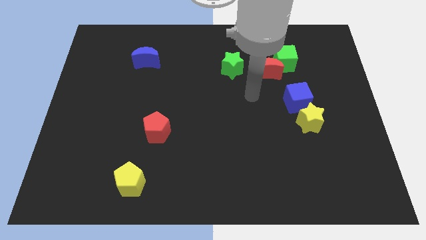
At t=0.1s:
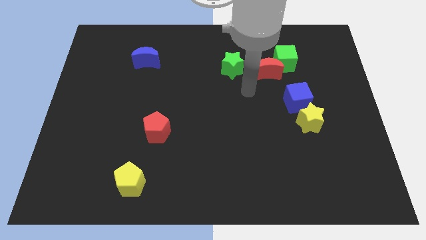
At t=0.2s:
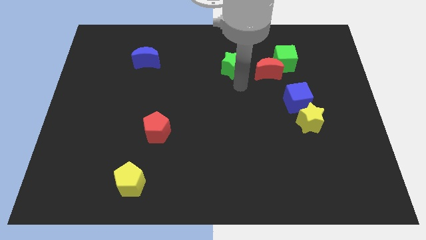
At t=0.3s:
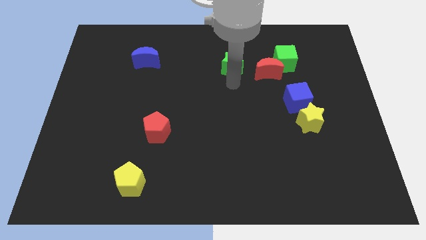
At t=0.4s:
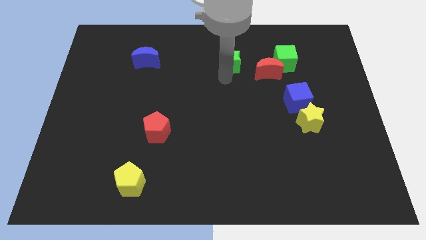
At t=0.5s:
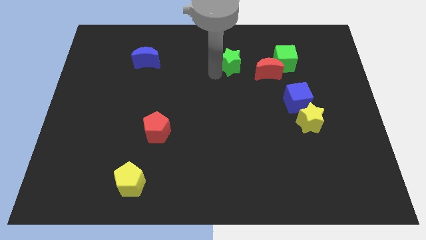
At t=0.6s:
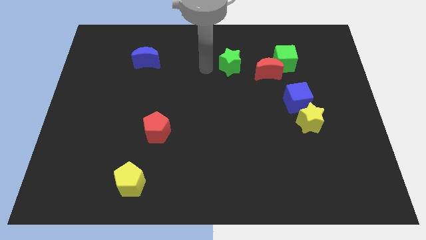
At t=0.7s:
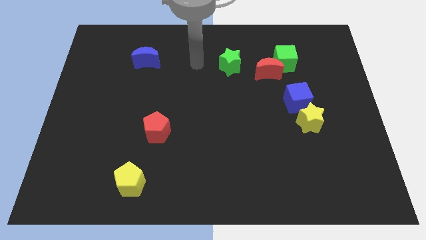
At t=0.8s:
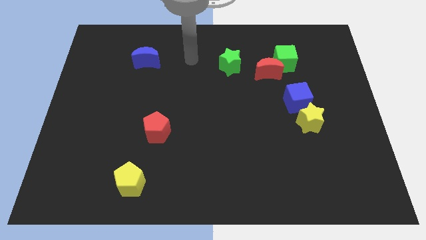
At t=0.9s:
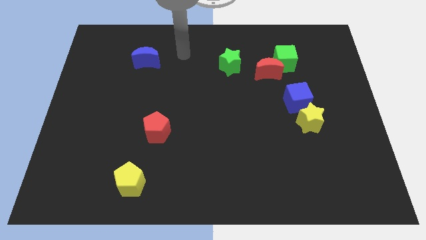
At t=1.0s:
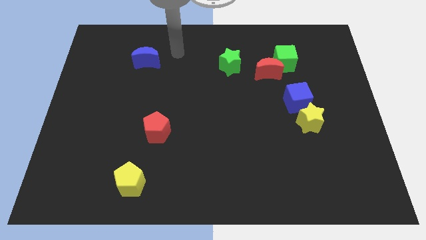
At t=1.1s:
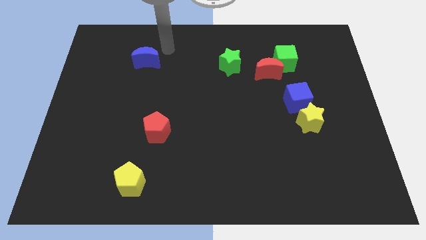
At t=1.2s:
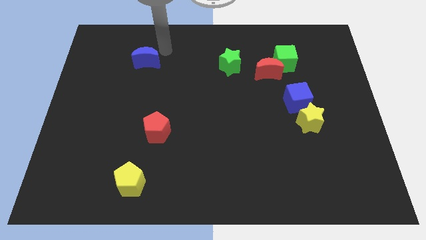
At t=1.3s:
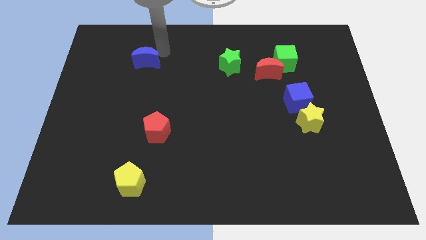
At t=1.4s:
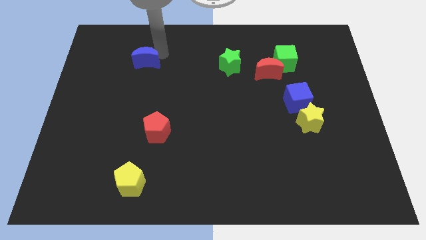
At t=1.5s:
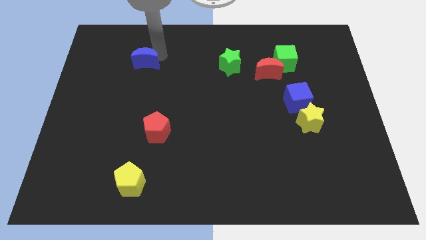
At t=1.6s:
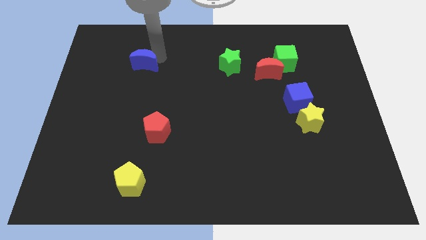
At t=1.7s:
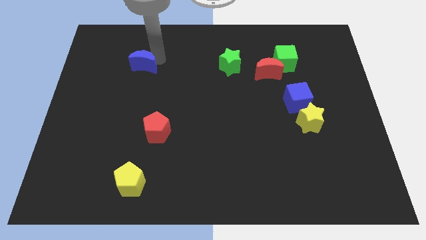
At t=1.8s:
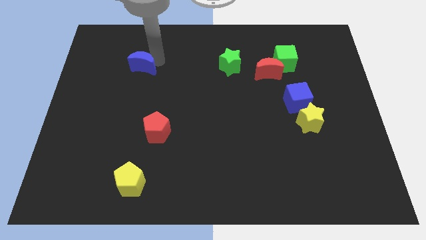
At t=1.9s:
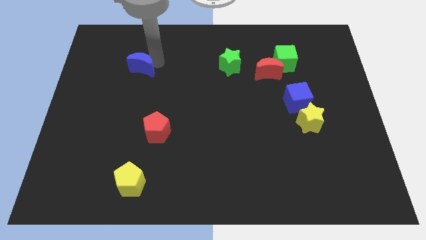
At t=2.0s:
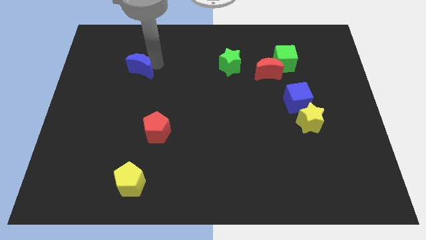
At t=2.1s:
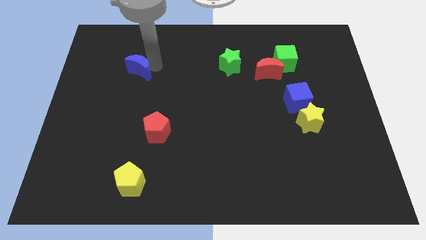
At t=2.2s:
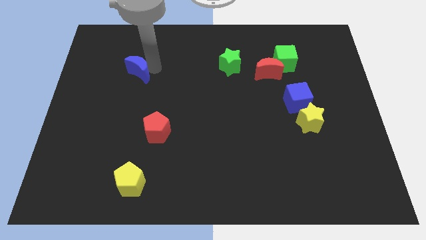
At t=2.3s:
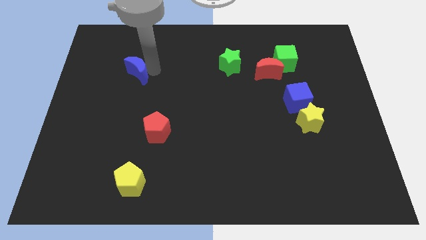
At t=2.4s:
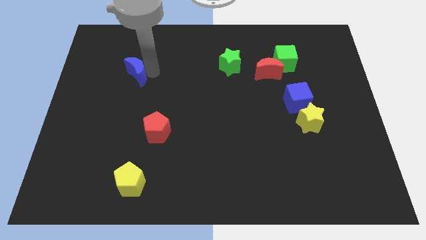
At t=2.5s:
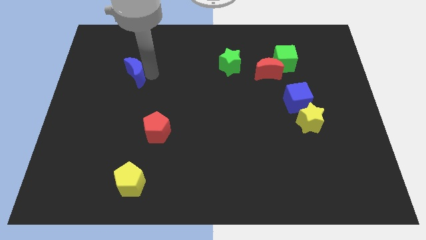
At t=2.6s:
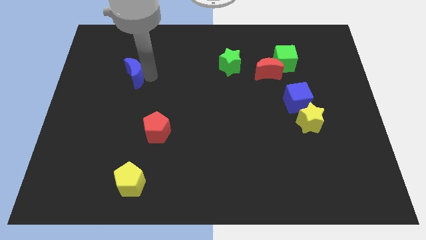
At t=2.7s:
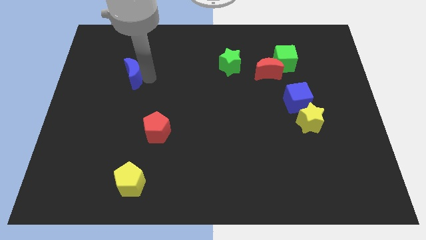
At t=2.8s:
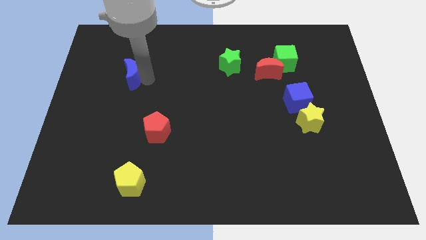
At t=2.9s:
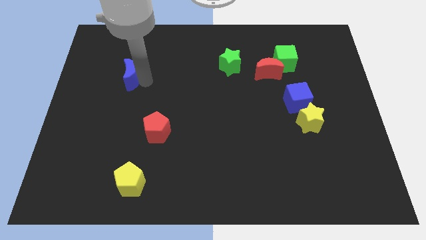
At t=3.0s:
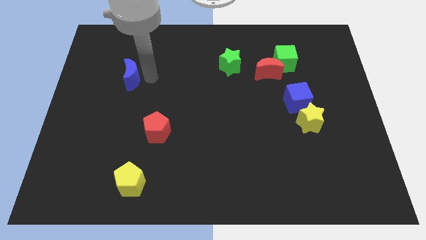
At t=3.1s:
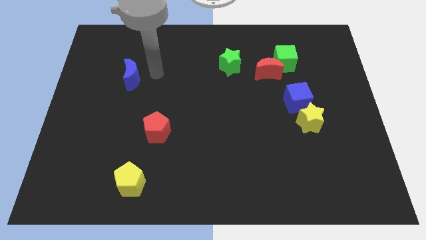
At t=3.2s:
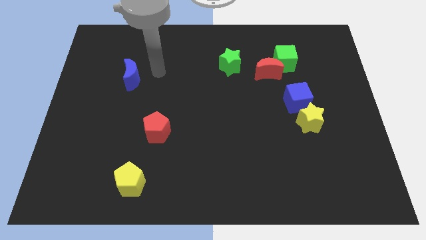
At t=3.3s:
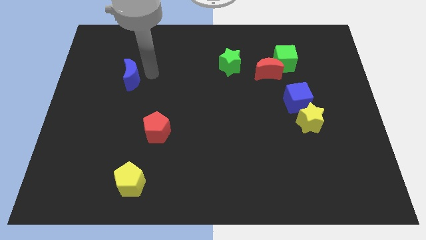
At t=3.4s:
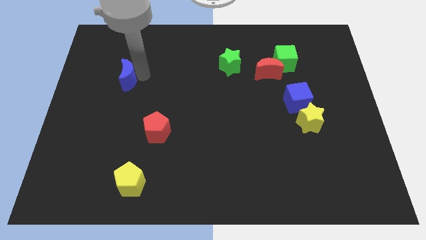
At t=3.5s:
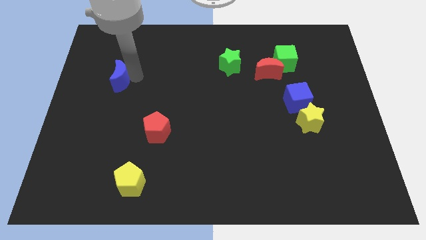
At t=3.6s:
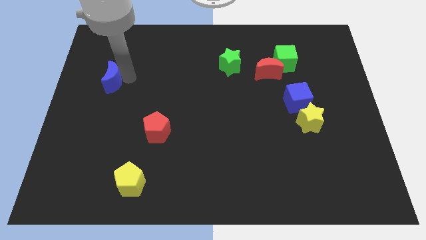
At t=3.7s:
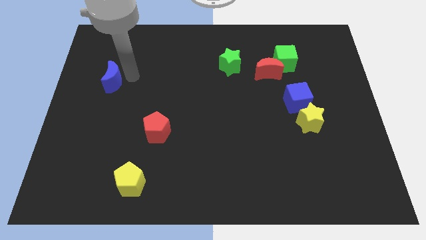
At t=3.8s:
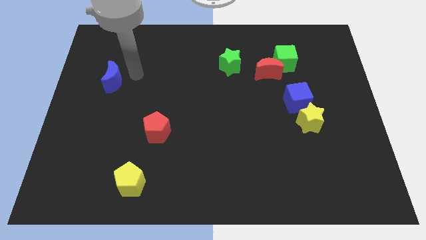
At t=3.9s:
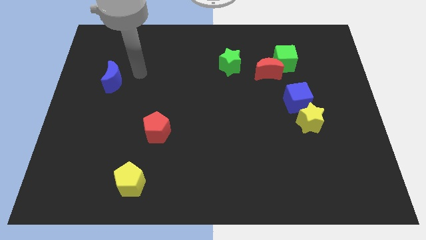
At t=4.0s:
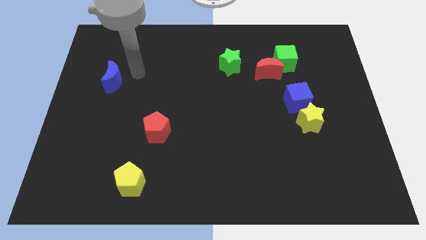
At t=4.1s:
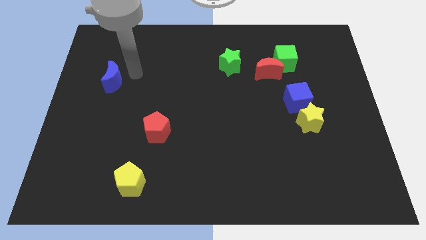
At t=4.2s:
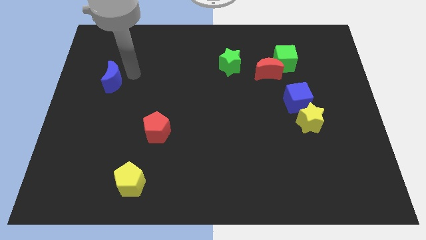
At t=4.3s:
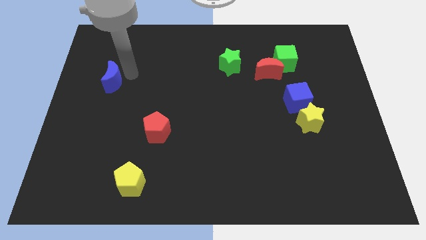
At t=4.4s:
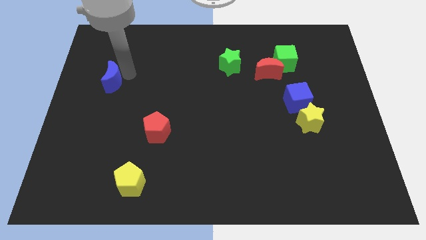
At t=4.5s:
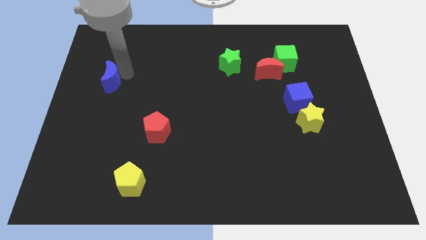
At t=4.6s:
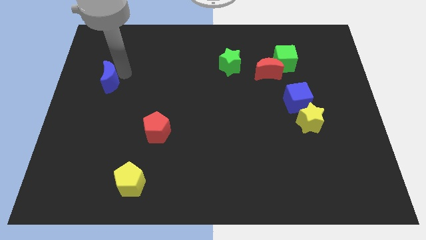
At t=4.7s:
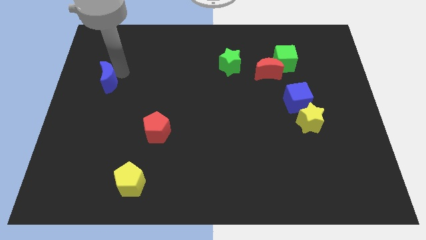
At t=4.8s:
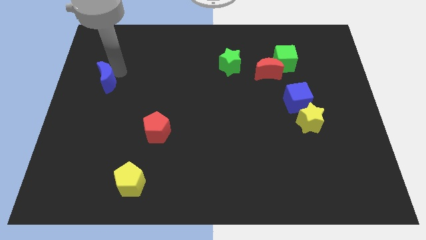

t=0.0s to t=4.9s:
put the blue moon to the left side

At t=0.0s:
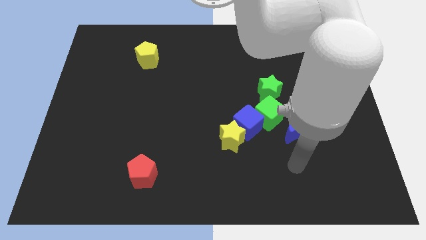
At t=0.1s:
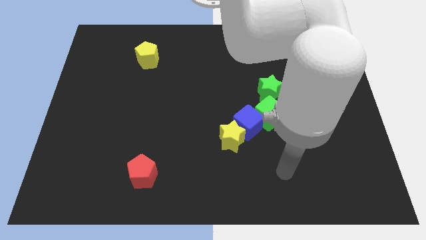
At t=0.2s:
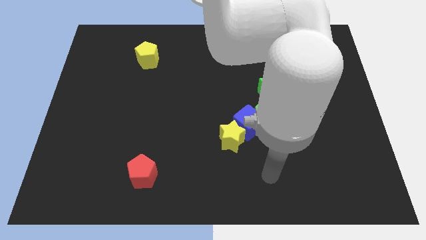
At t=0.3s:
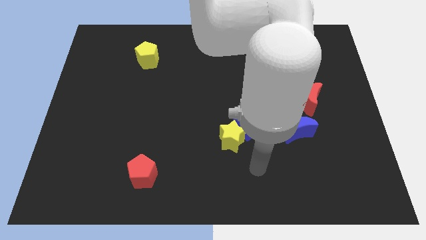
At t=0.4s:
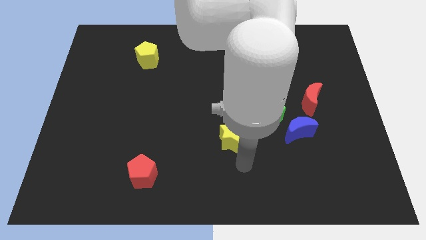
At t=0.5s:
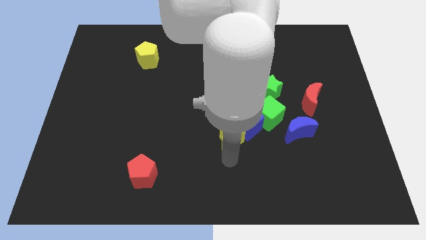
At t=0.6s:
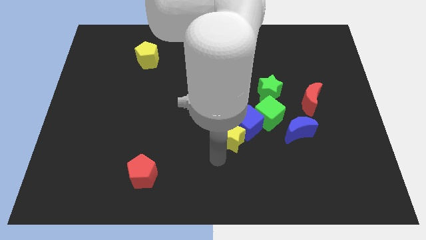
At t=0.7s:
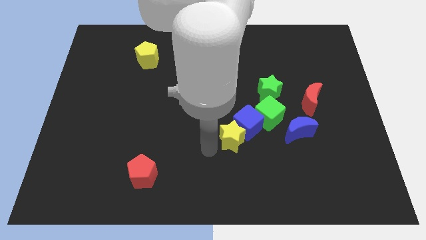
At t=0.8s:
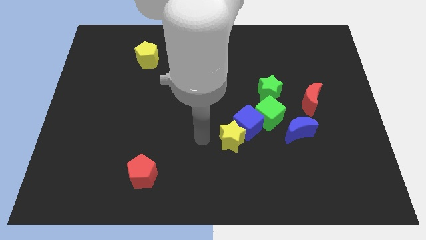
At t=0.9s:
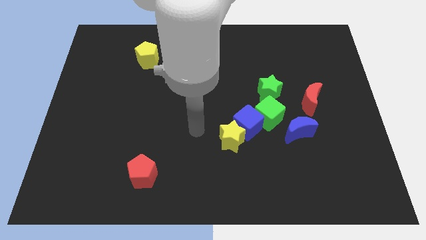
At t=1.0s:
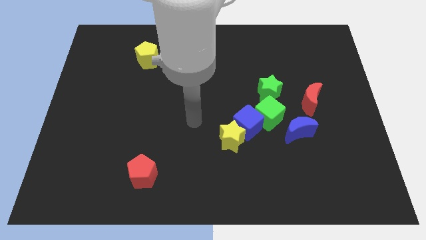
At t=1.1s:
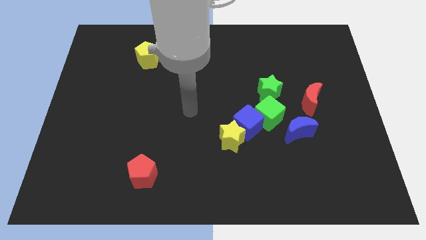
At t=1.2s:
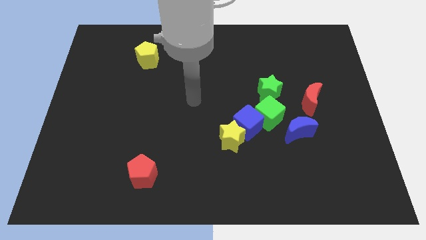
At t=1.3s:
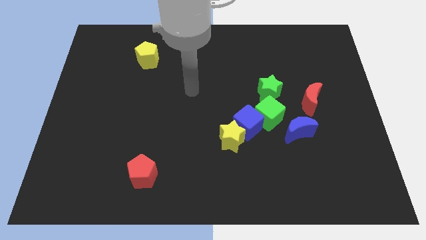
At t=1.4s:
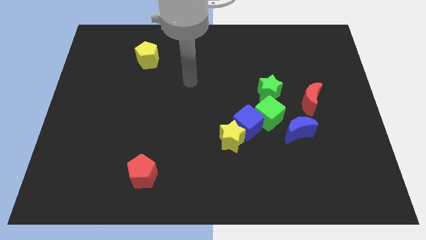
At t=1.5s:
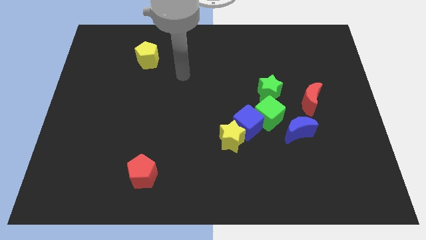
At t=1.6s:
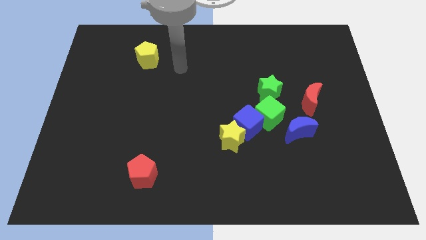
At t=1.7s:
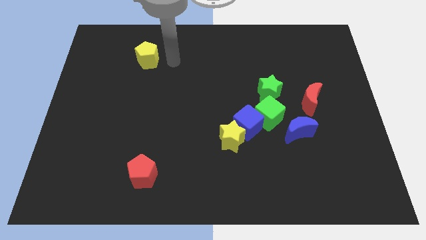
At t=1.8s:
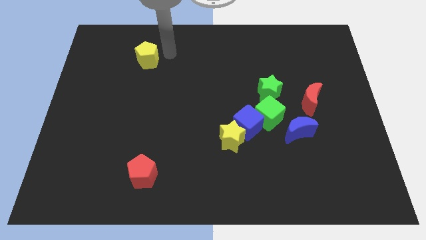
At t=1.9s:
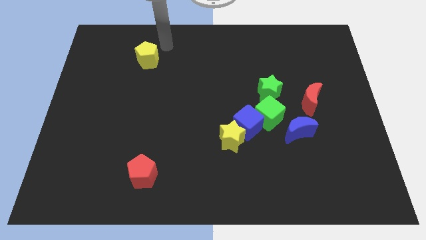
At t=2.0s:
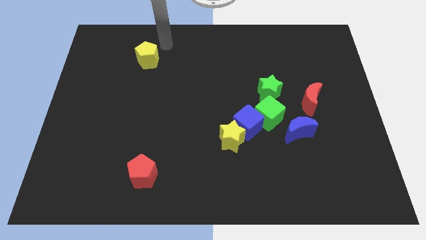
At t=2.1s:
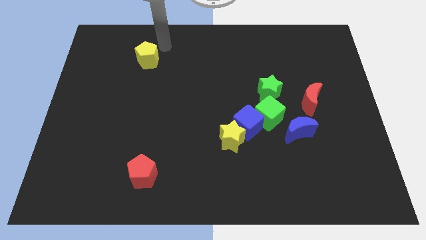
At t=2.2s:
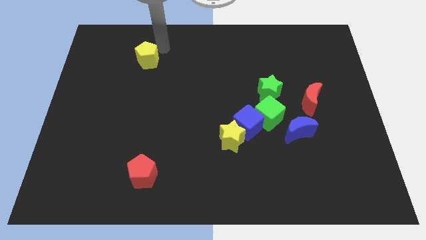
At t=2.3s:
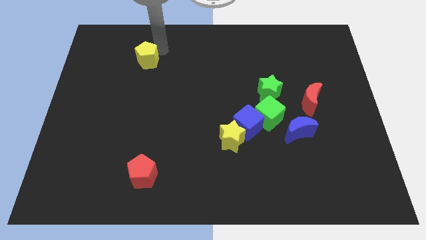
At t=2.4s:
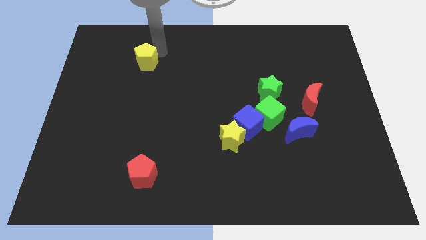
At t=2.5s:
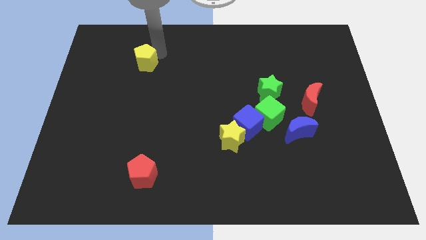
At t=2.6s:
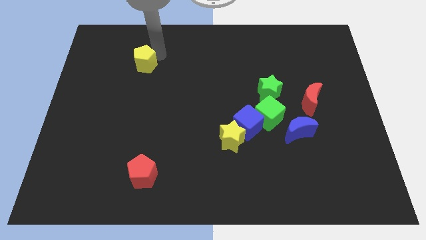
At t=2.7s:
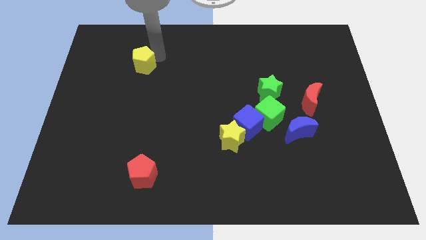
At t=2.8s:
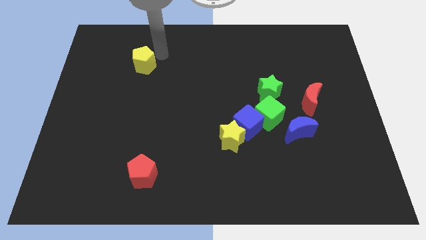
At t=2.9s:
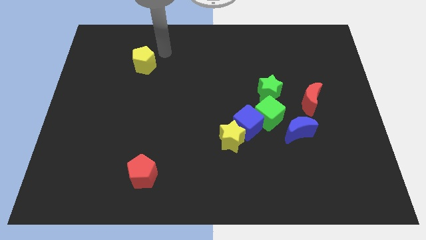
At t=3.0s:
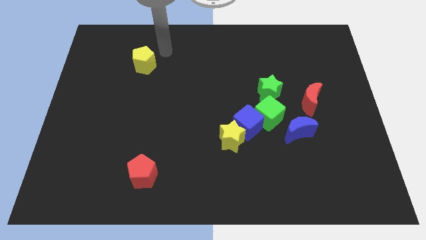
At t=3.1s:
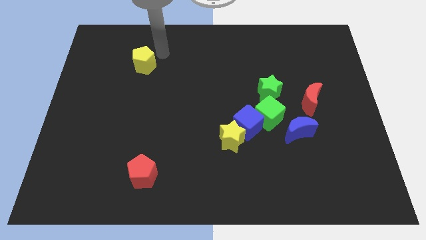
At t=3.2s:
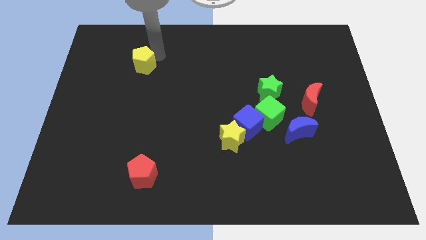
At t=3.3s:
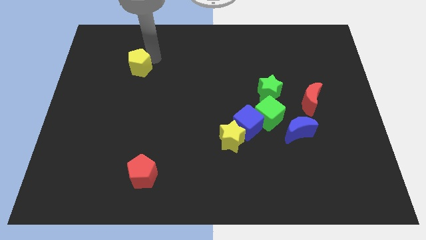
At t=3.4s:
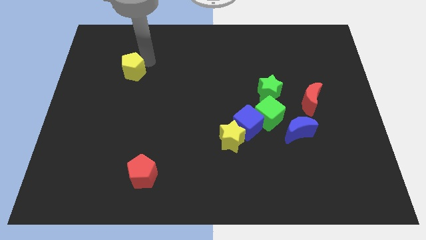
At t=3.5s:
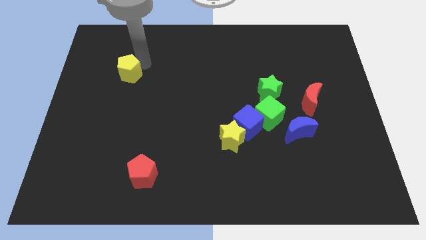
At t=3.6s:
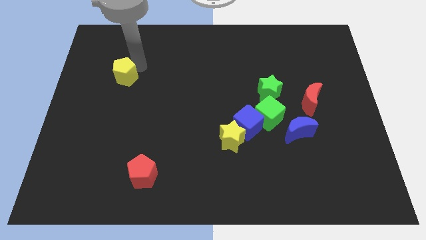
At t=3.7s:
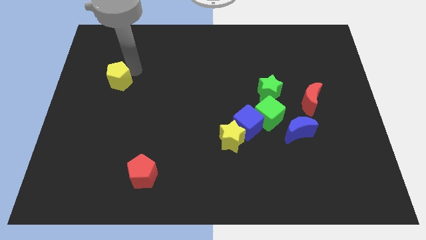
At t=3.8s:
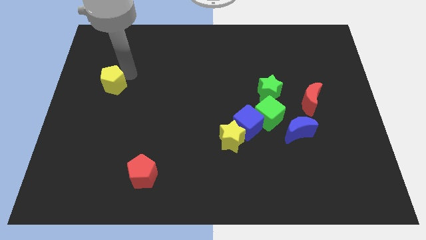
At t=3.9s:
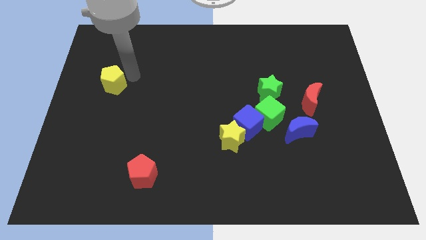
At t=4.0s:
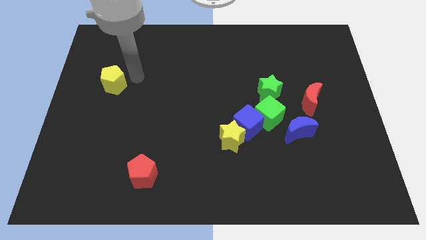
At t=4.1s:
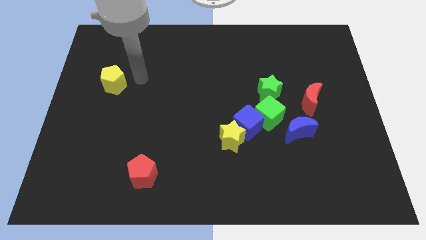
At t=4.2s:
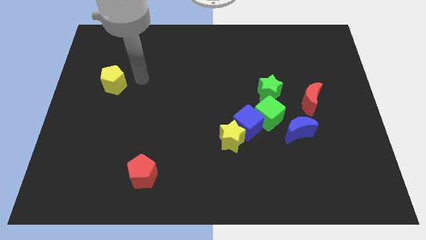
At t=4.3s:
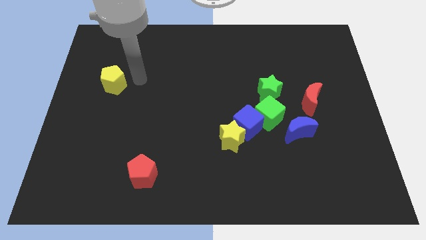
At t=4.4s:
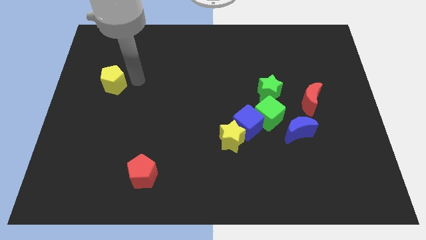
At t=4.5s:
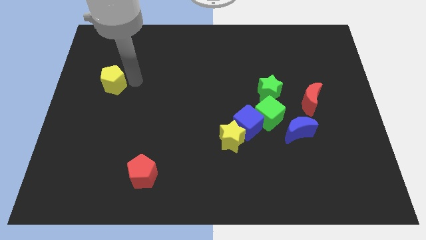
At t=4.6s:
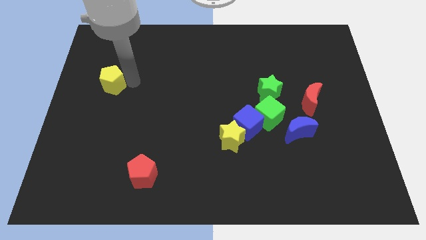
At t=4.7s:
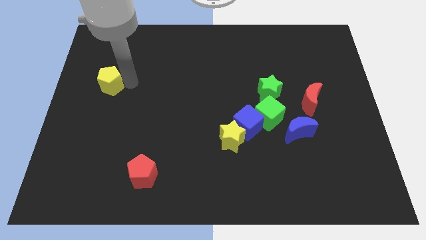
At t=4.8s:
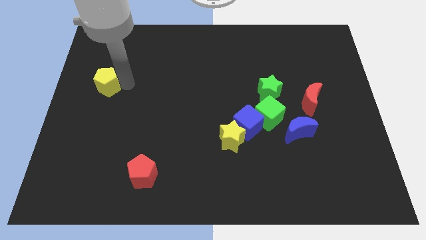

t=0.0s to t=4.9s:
push the yellow pentagon to the left side of the board
